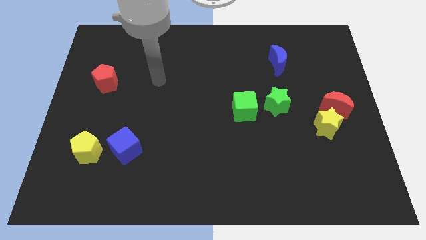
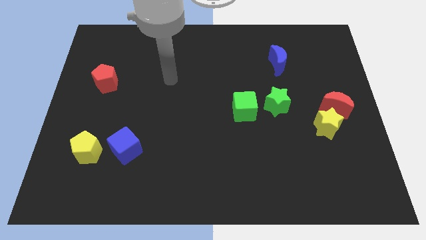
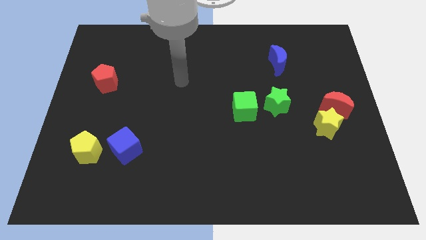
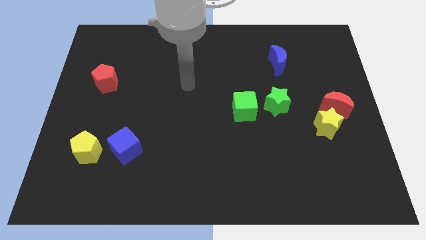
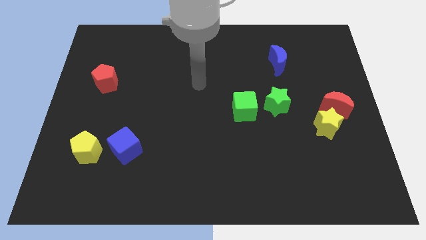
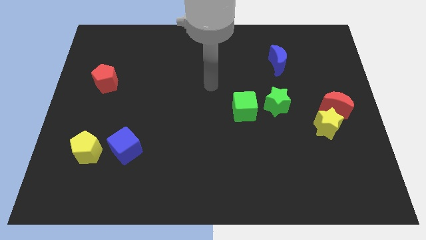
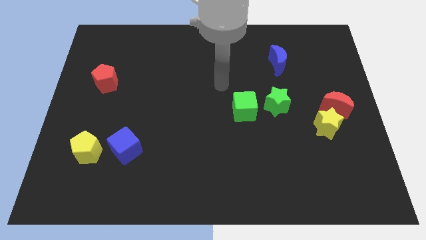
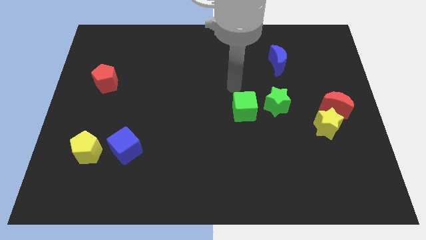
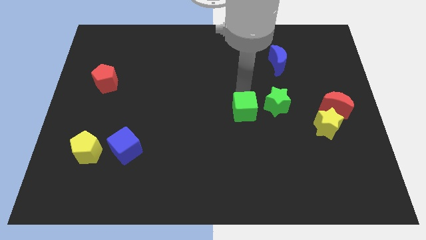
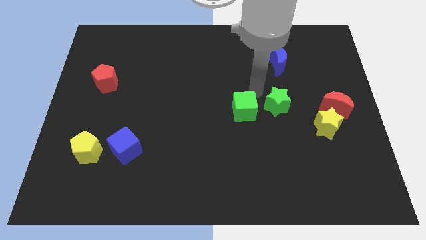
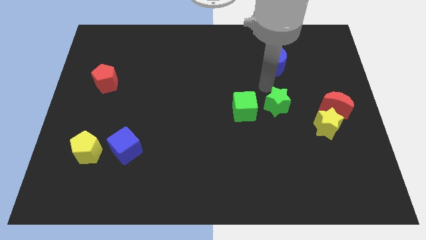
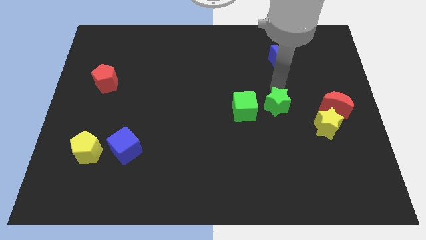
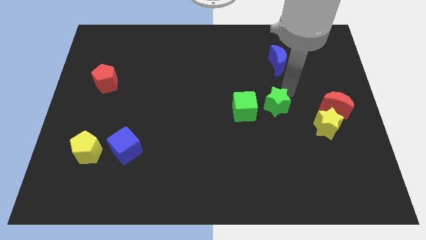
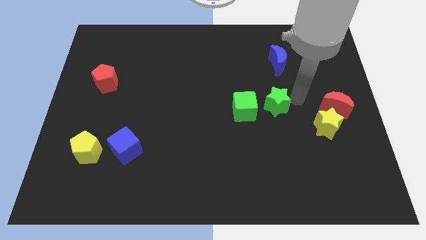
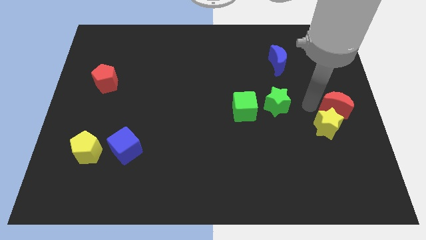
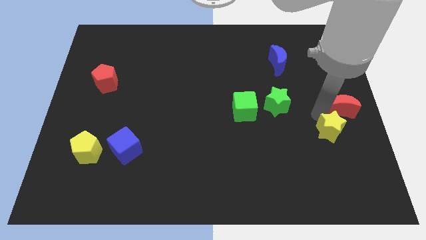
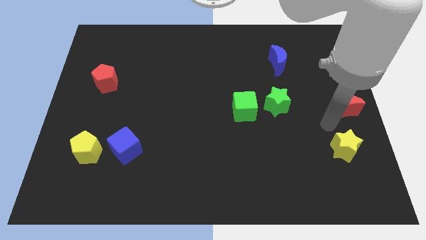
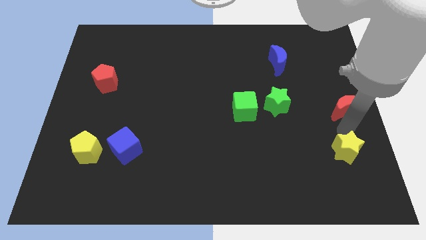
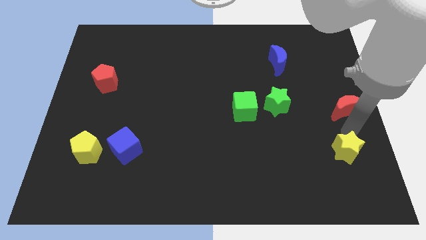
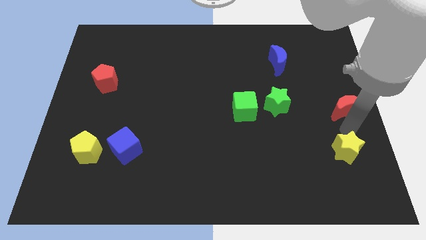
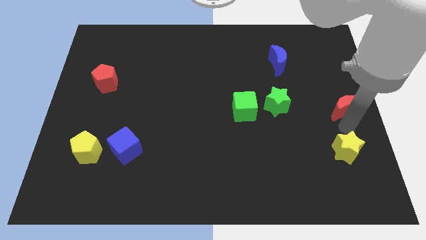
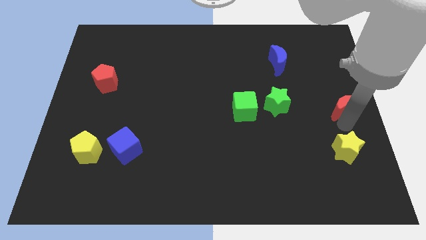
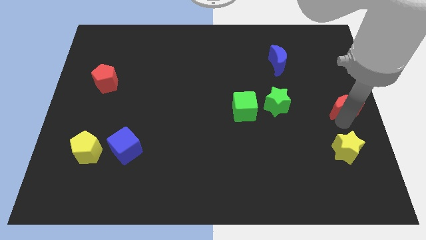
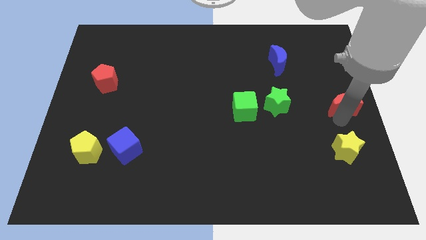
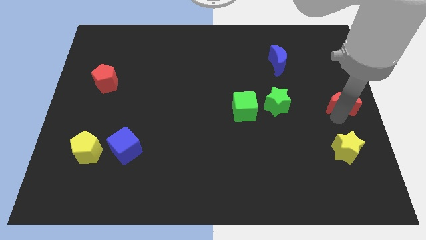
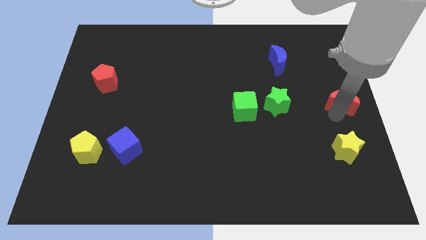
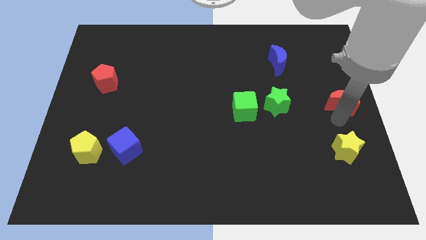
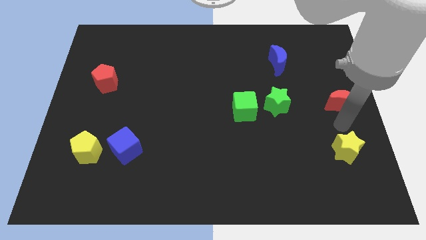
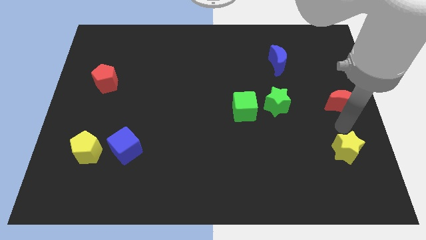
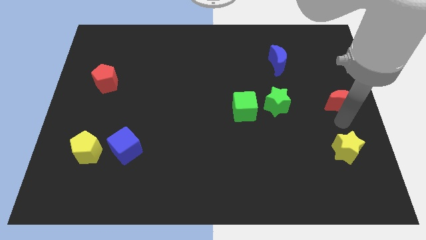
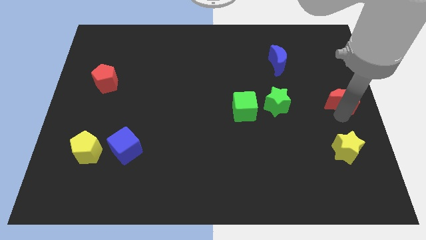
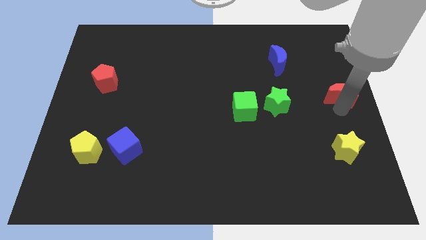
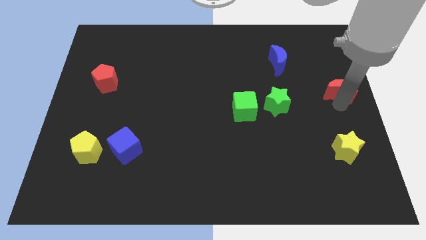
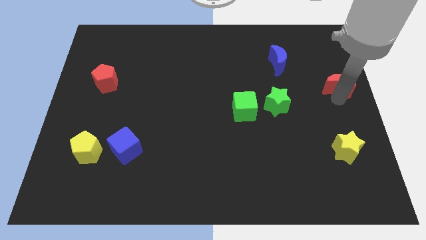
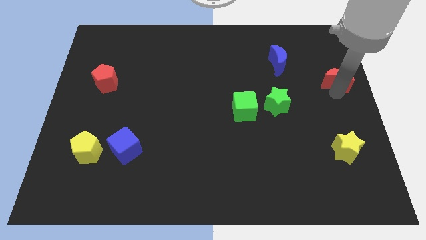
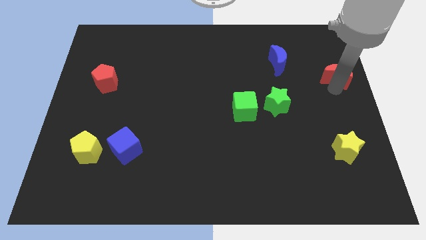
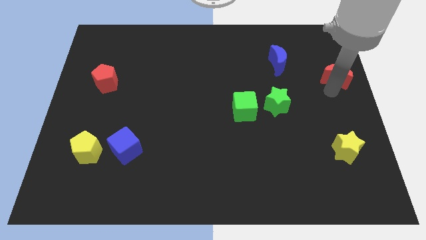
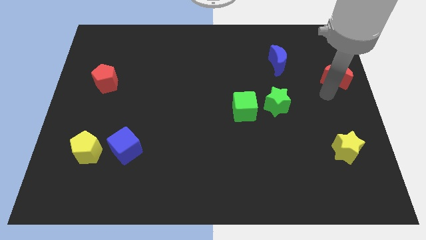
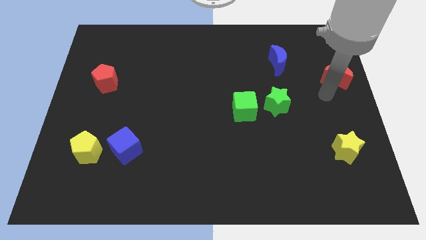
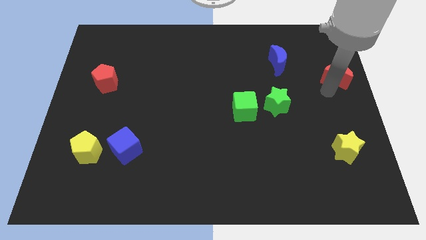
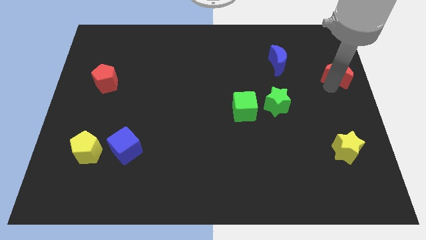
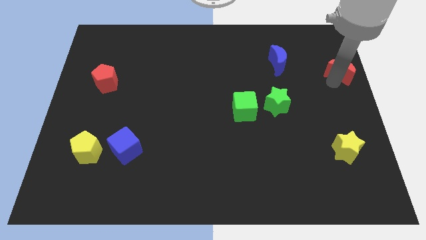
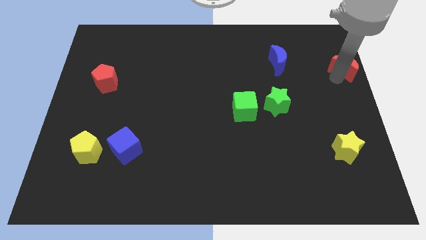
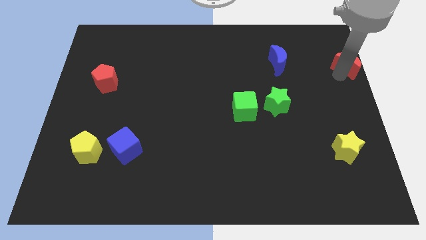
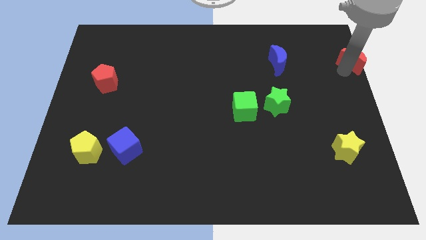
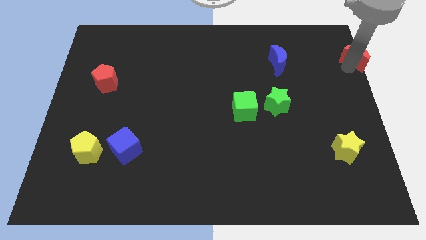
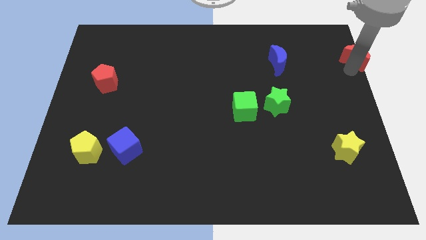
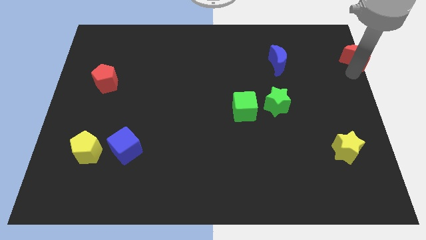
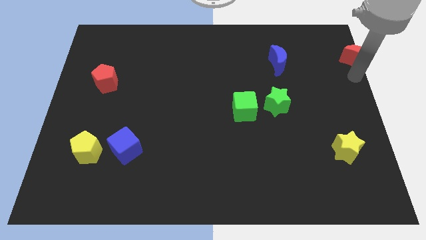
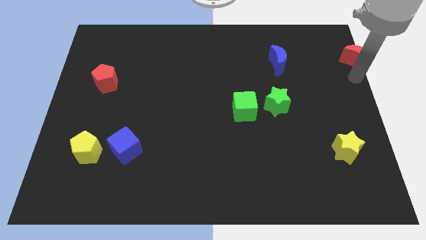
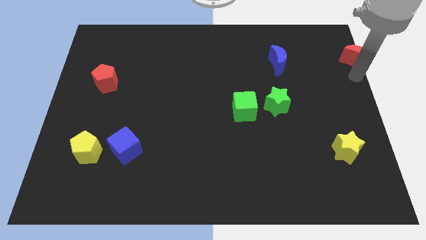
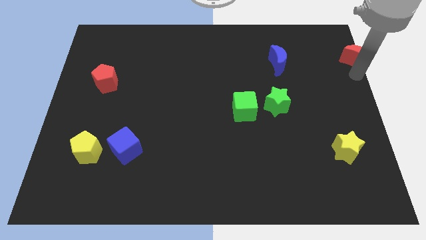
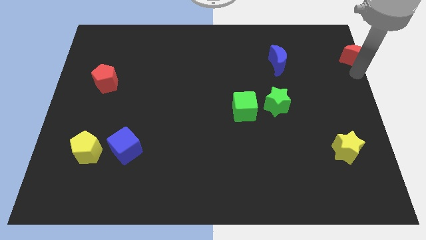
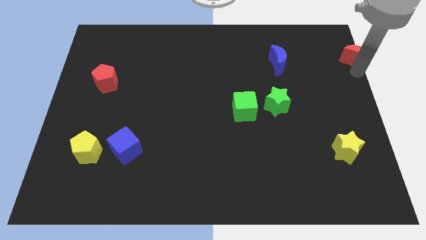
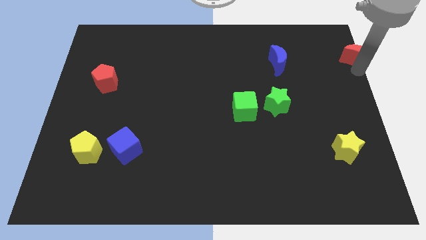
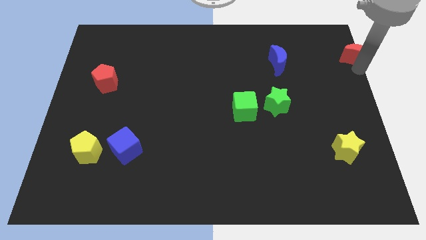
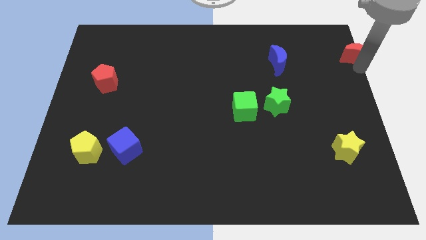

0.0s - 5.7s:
push the red moon to the top right

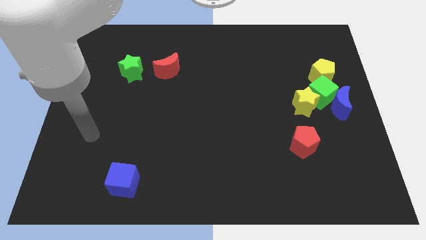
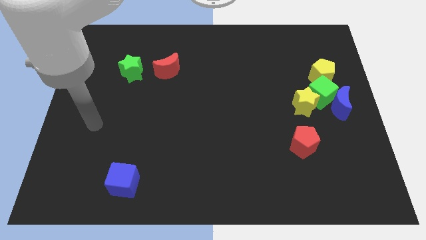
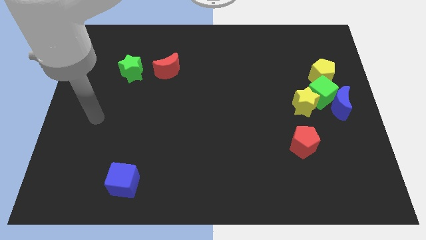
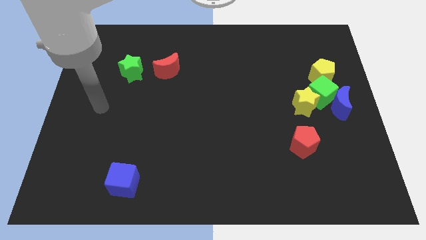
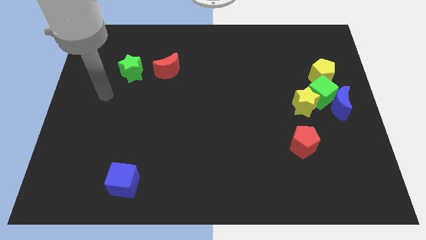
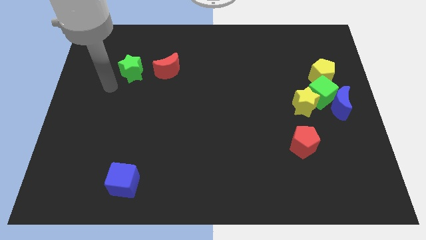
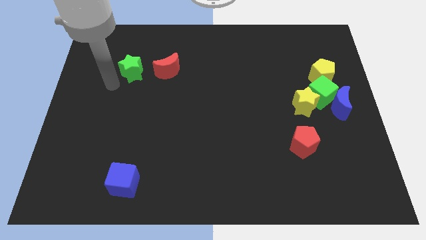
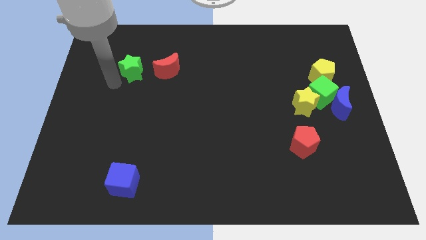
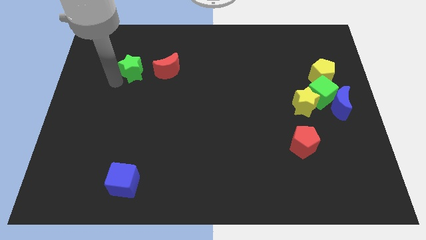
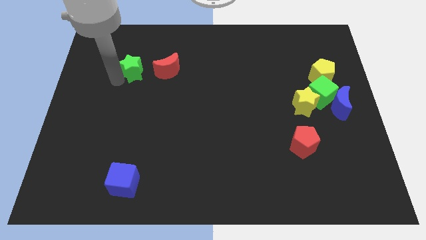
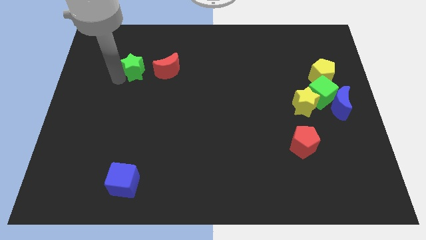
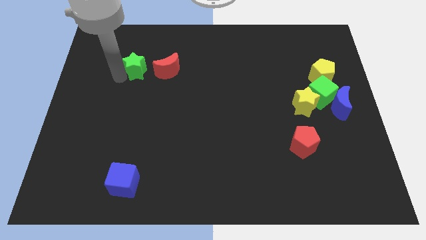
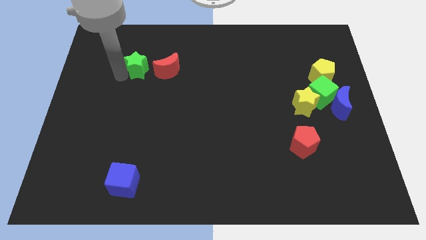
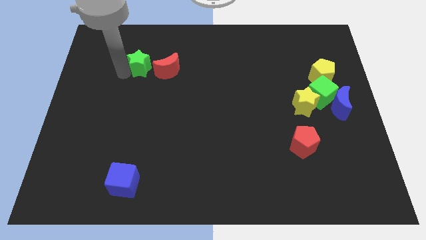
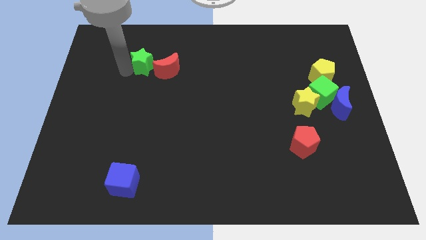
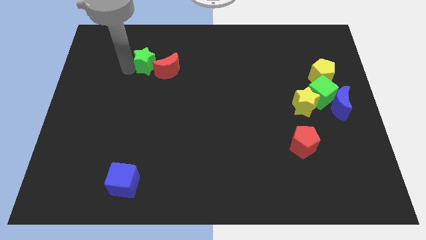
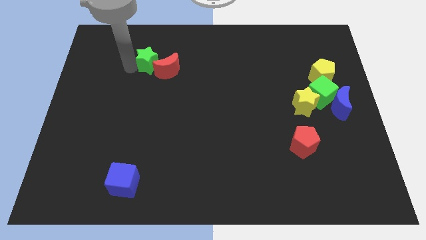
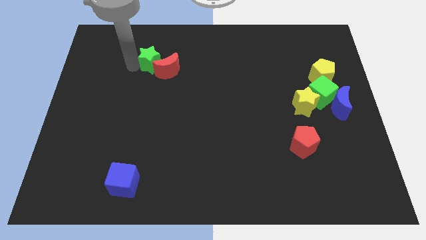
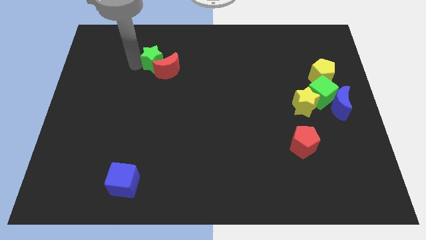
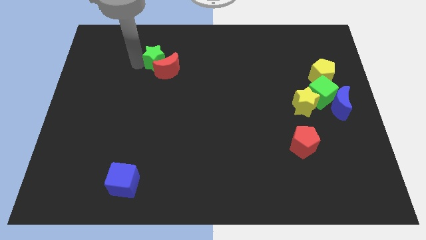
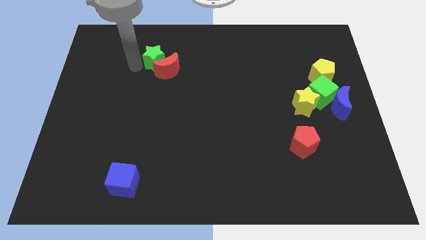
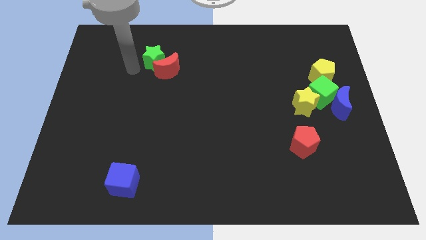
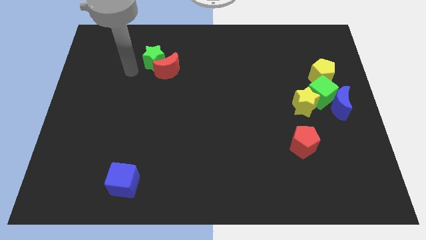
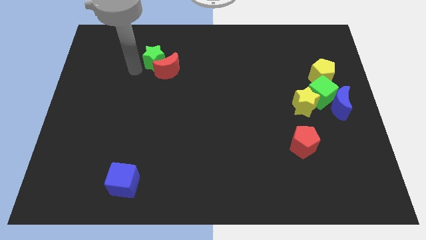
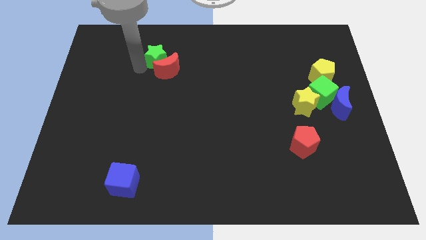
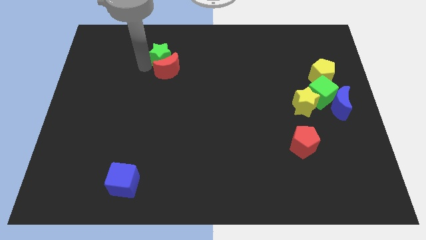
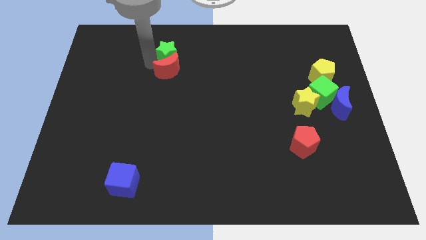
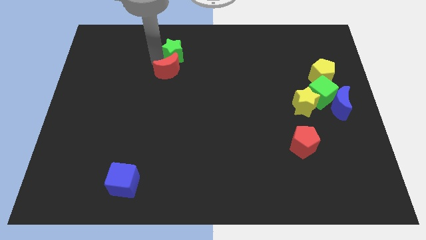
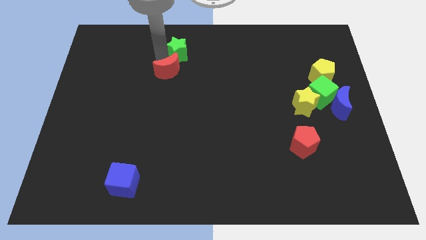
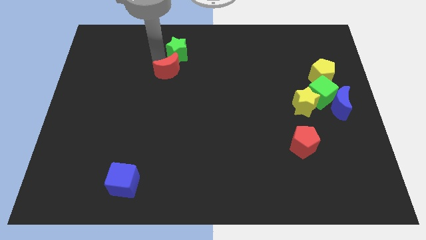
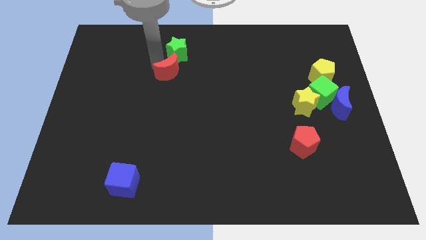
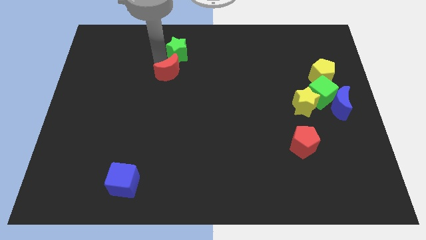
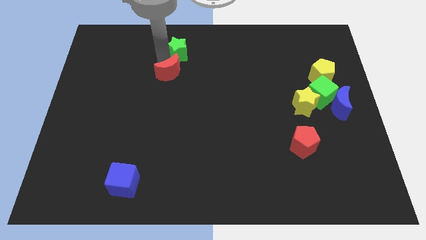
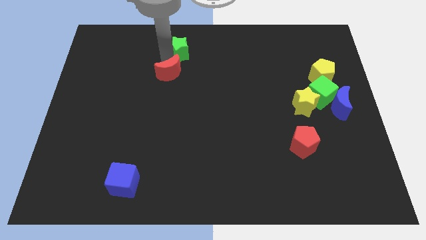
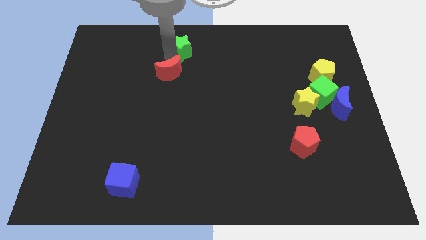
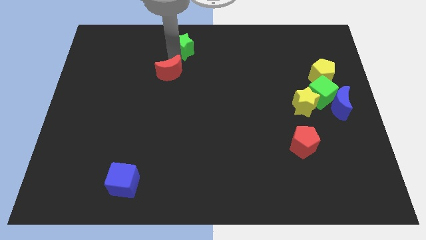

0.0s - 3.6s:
slide the green star to the towards your base
